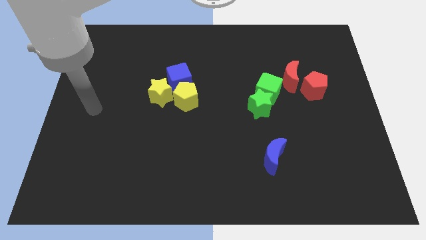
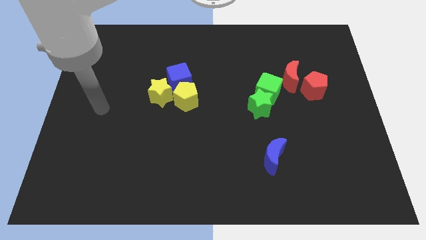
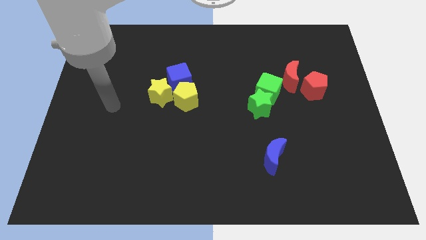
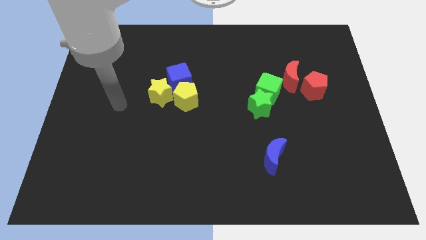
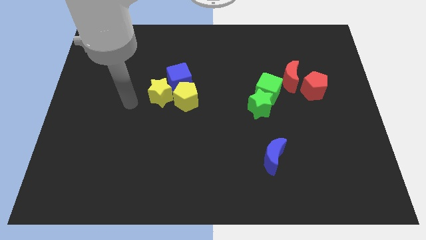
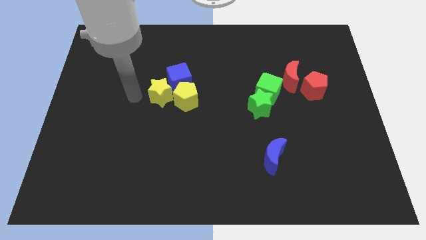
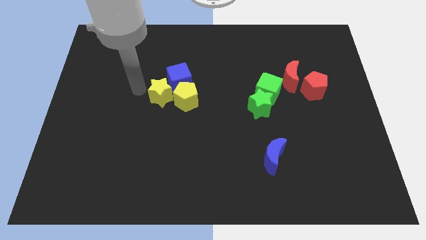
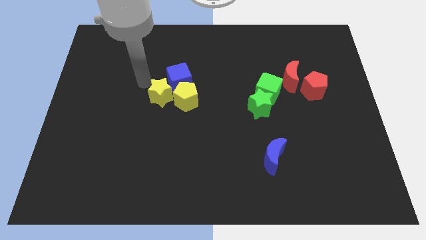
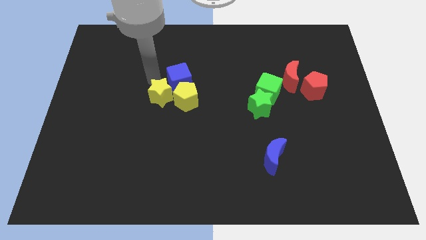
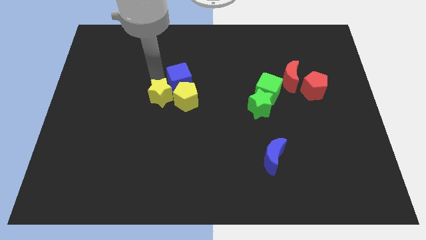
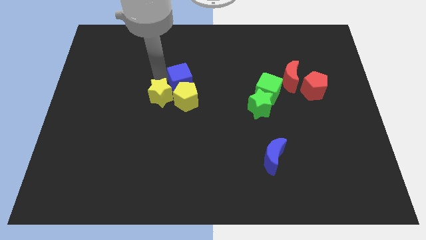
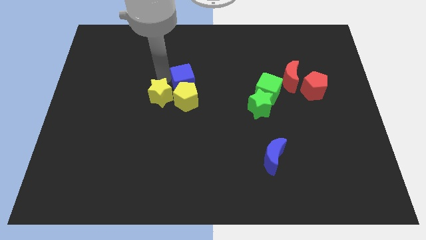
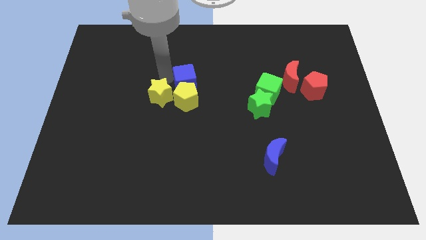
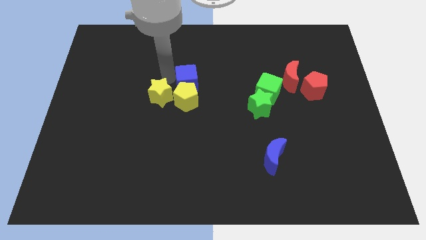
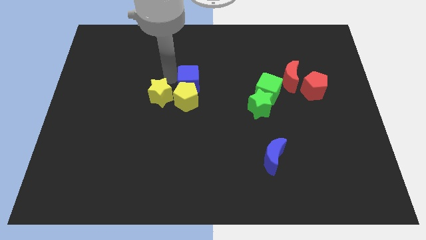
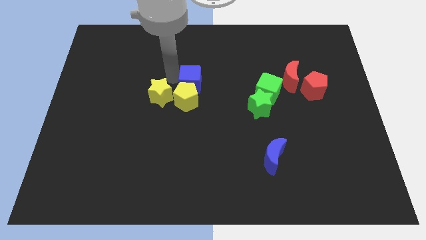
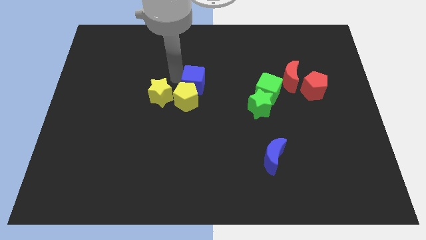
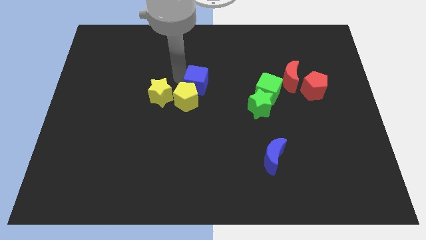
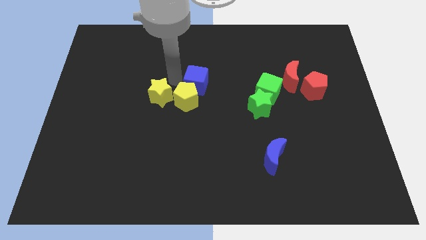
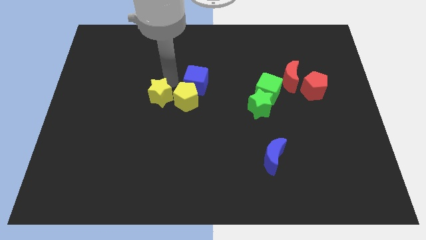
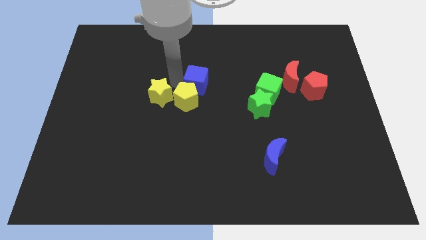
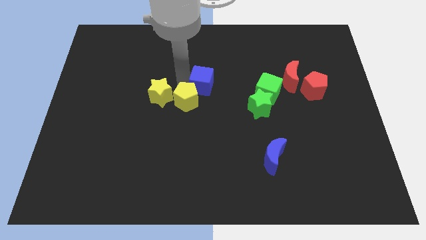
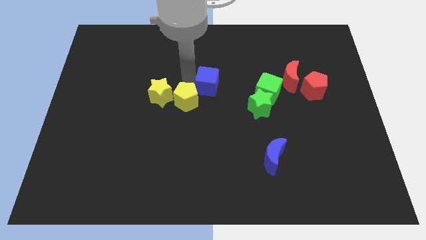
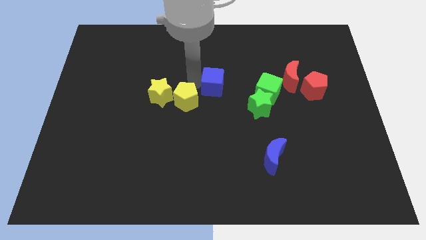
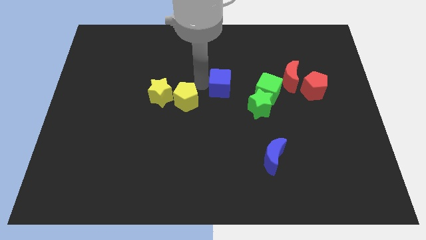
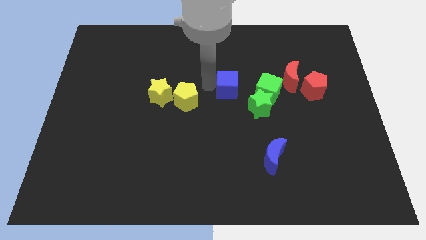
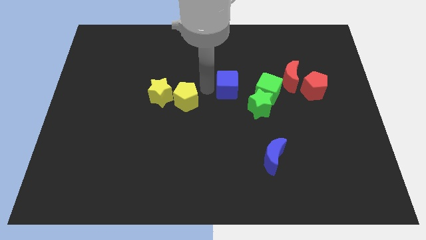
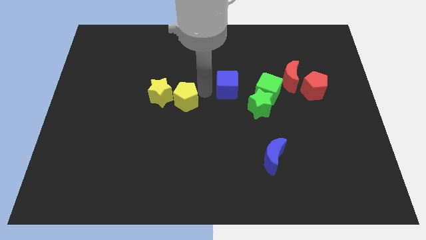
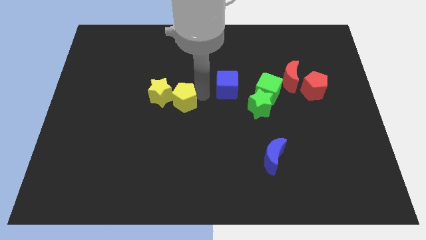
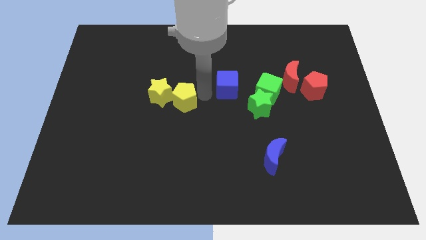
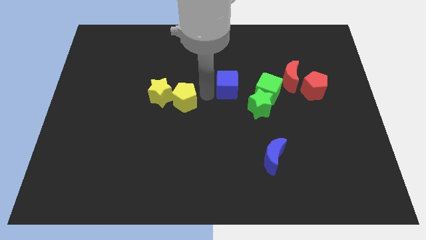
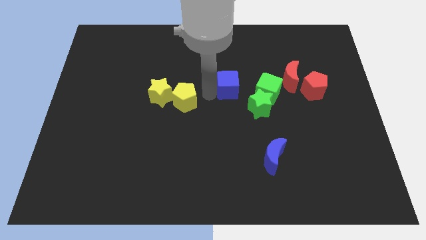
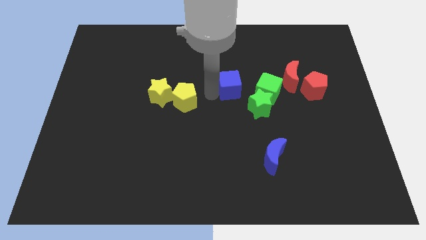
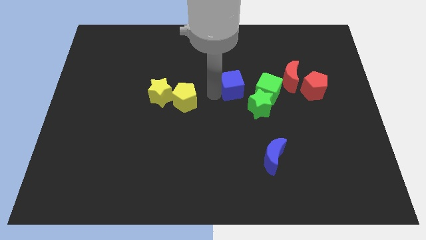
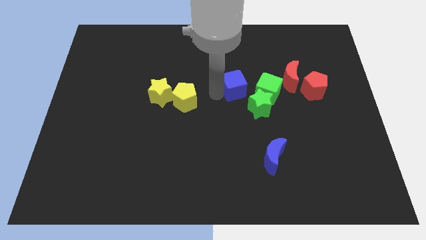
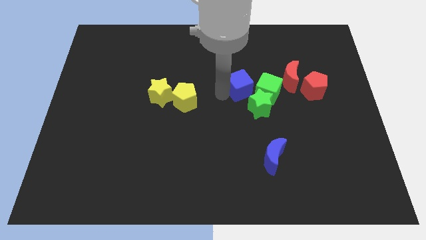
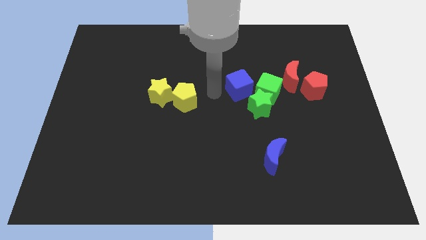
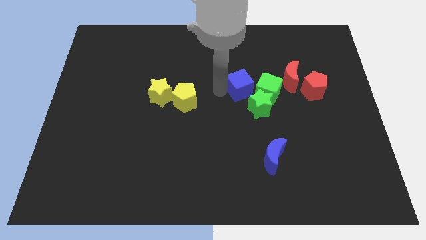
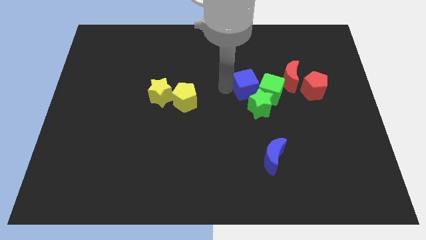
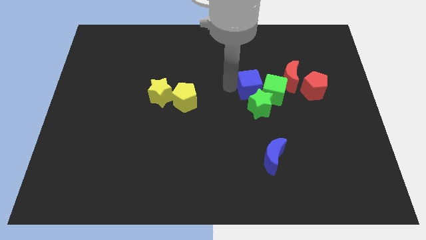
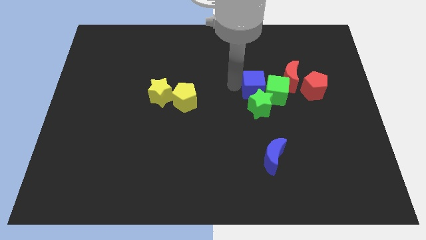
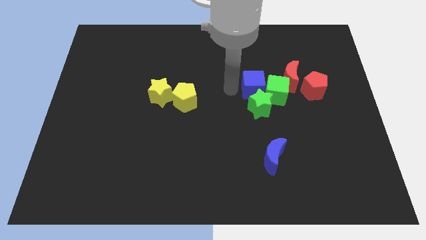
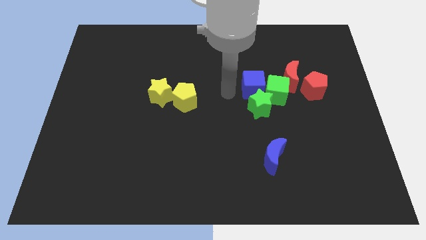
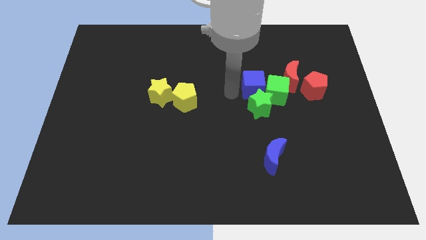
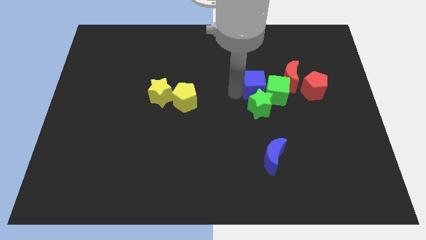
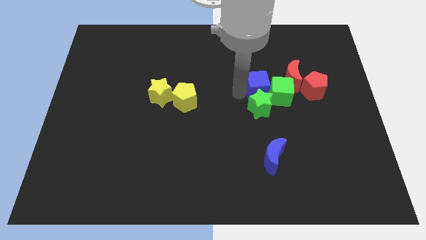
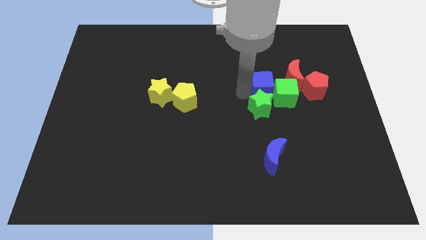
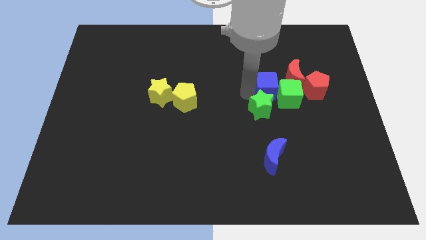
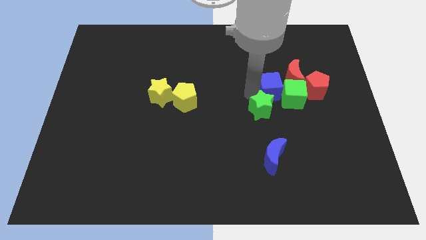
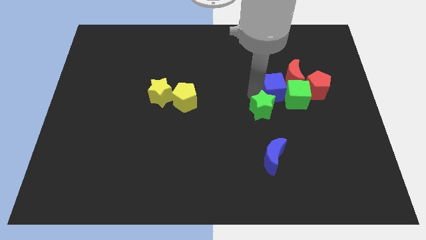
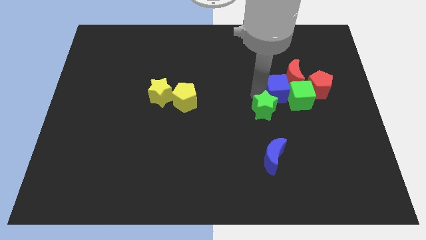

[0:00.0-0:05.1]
put the blue cube close to the red moon

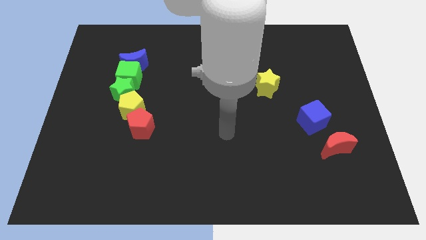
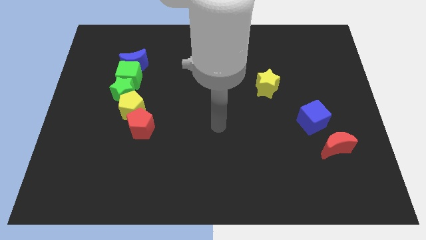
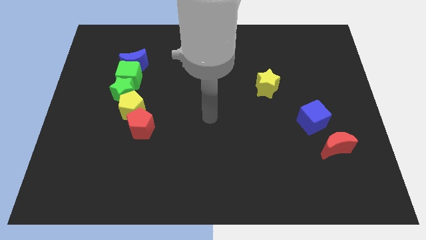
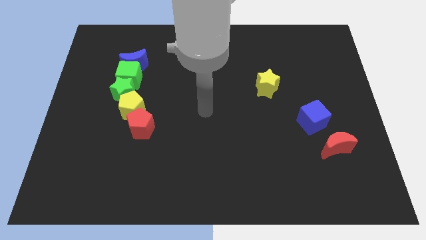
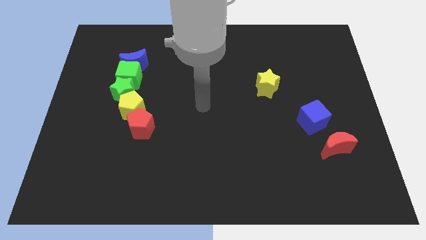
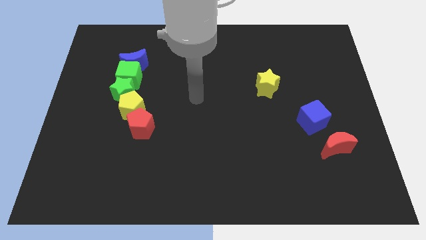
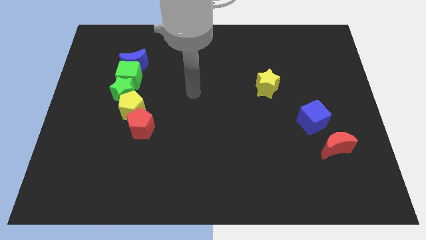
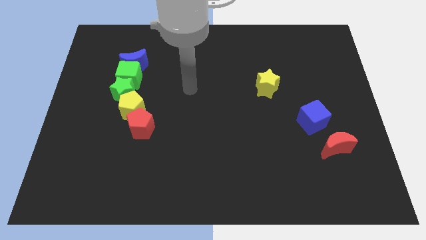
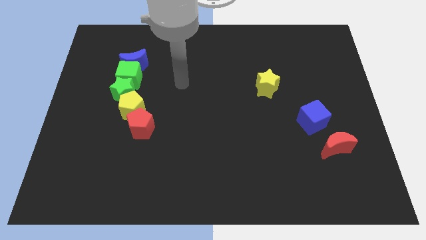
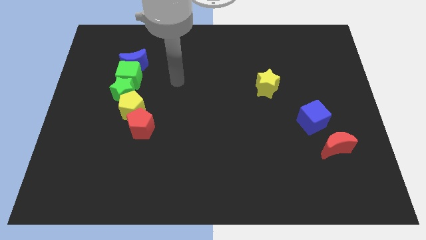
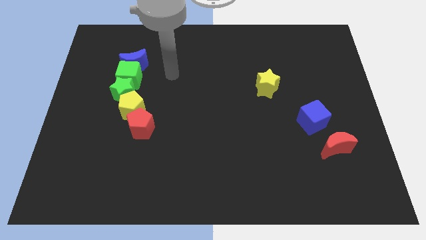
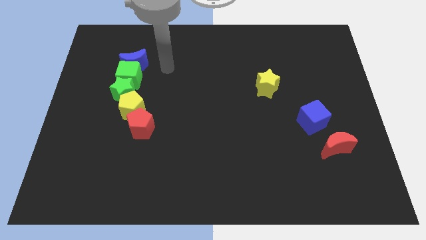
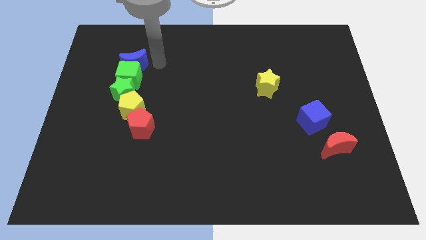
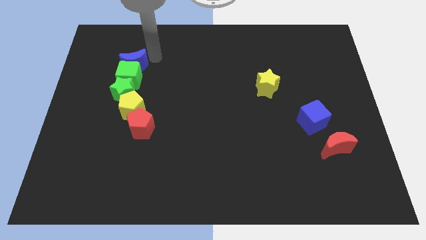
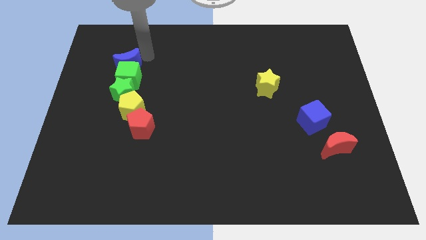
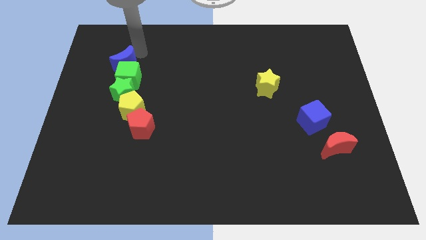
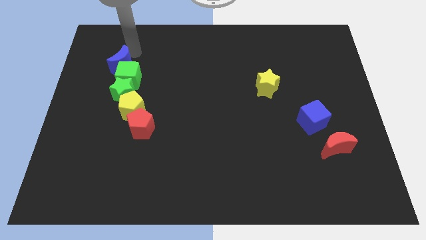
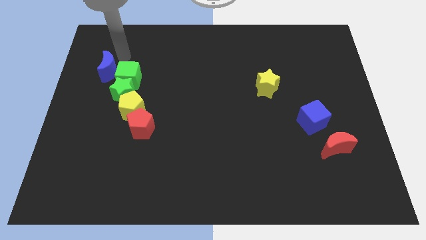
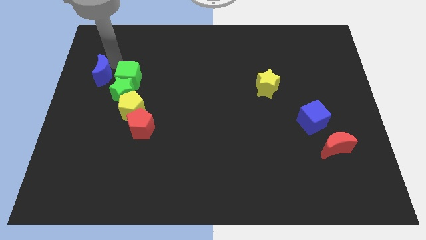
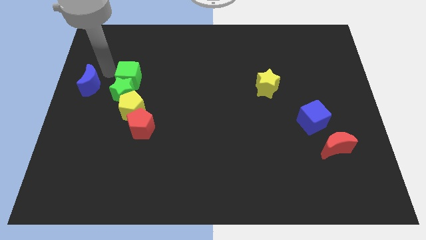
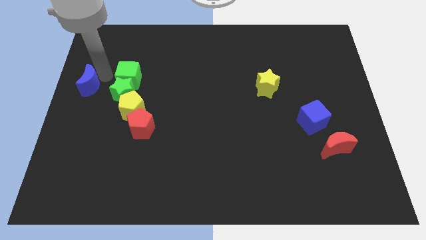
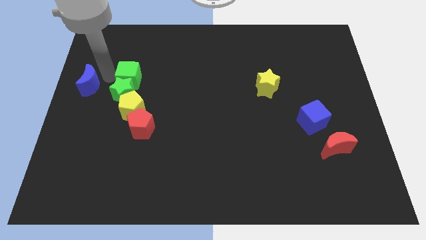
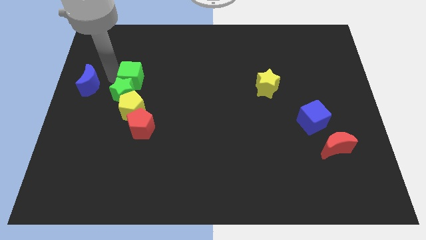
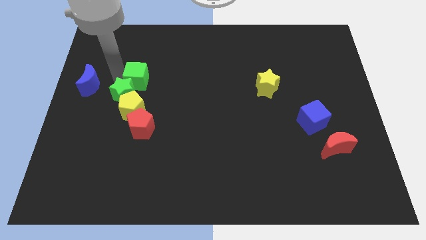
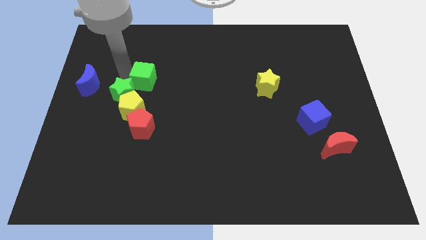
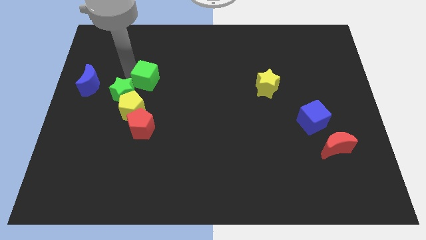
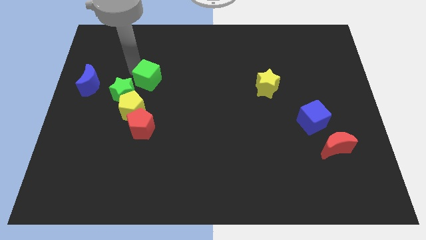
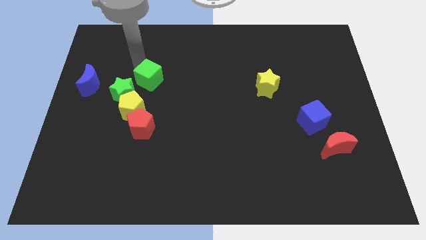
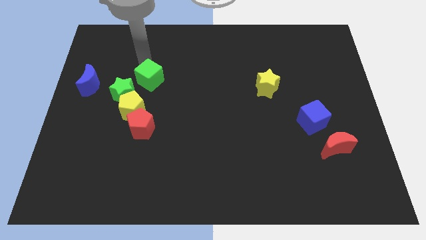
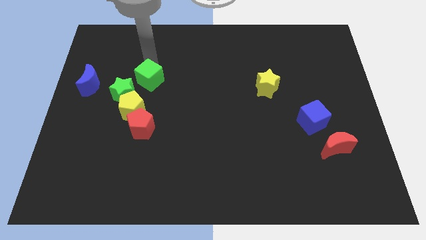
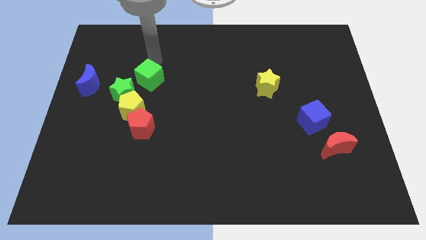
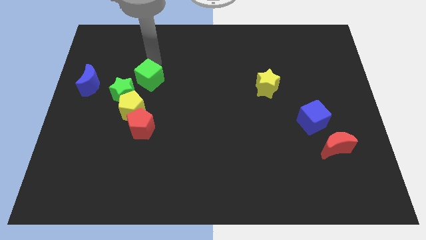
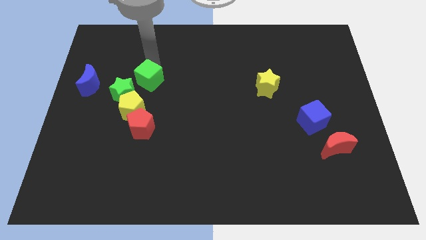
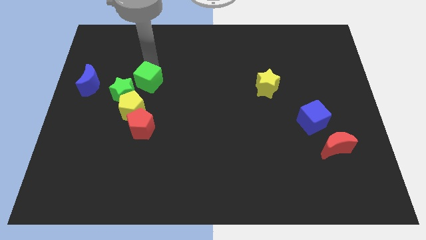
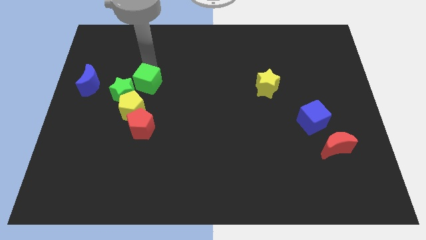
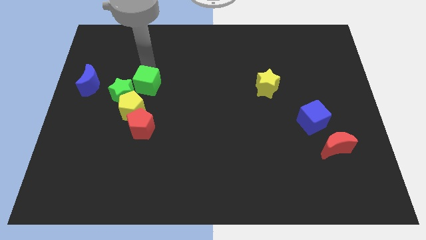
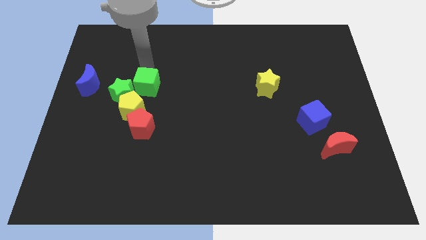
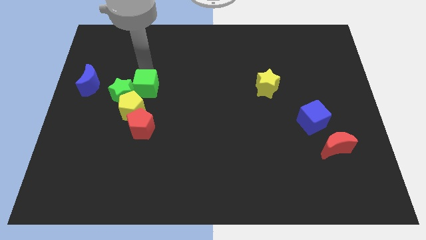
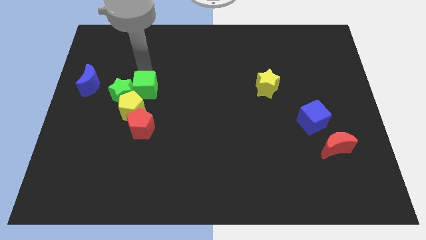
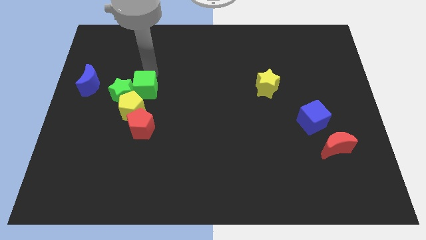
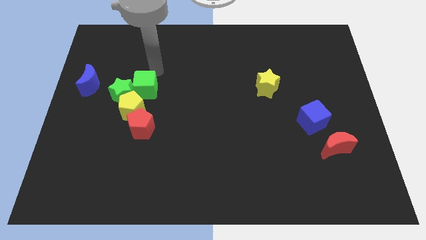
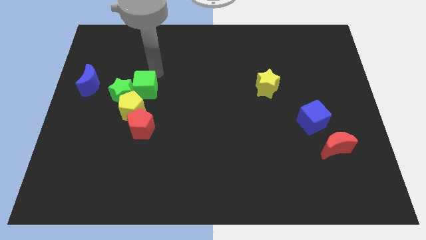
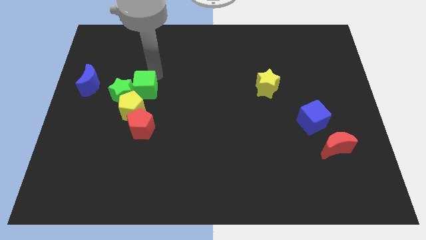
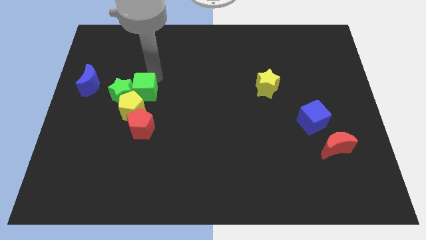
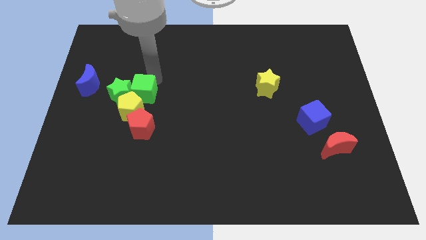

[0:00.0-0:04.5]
put the green cube close to the yellow pentagon
